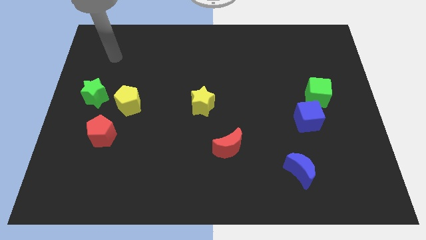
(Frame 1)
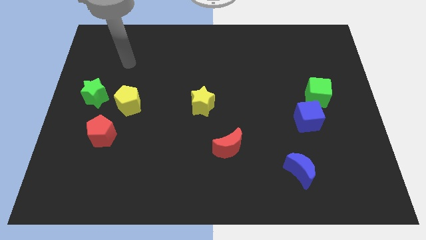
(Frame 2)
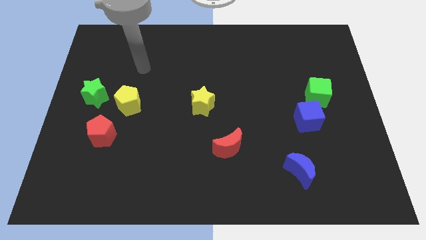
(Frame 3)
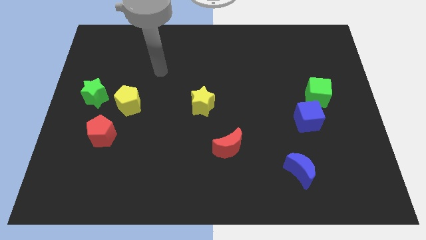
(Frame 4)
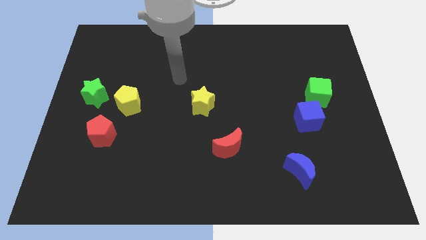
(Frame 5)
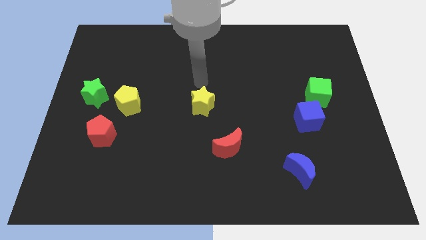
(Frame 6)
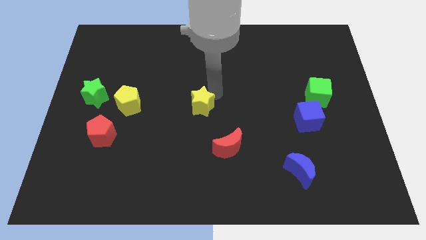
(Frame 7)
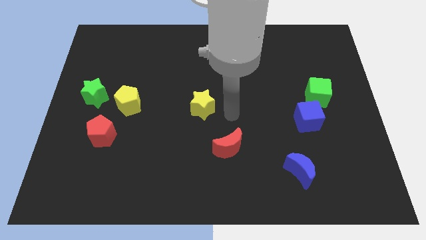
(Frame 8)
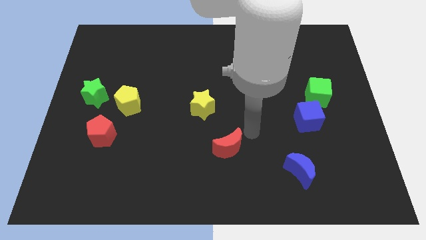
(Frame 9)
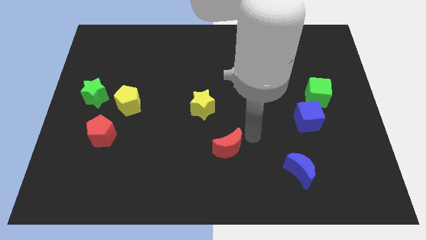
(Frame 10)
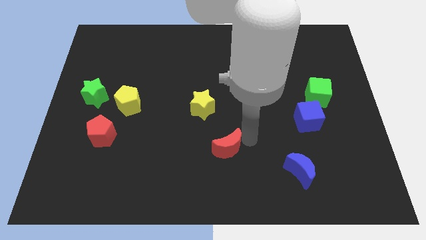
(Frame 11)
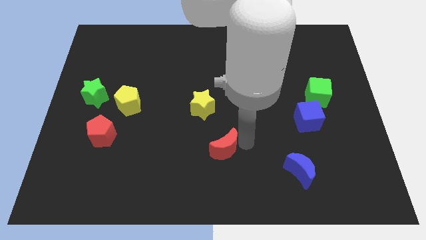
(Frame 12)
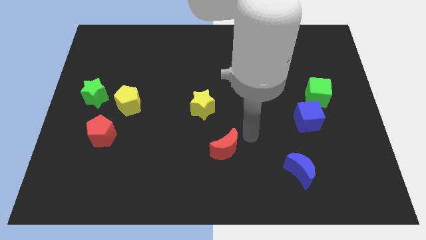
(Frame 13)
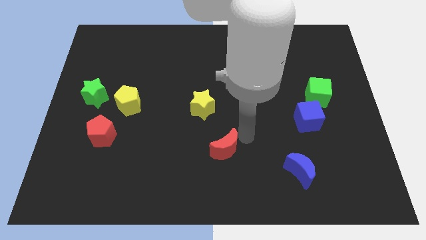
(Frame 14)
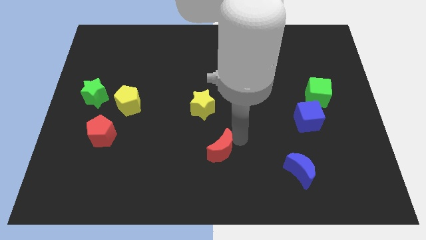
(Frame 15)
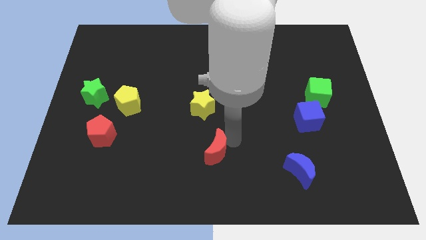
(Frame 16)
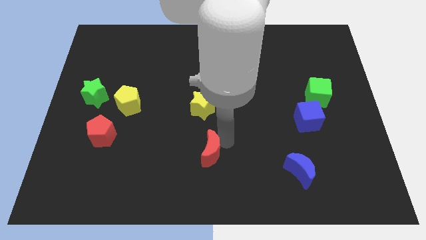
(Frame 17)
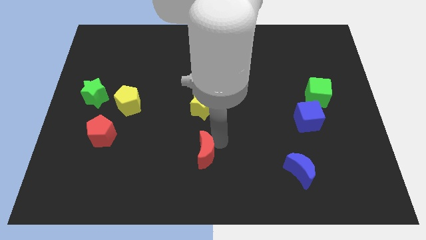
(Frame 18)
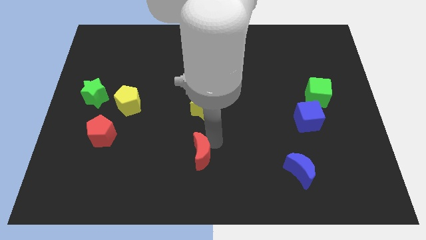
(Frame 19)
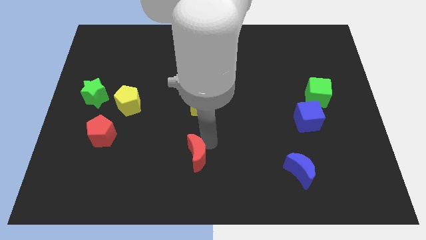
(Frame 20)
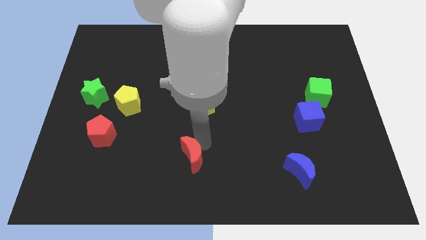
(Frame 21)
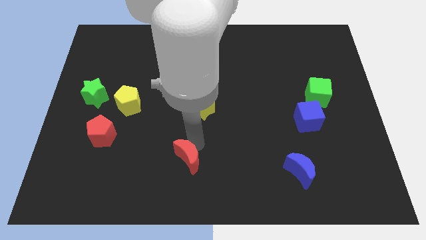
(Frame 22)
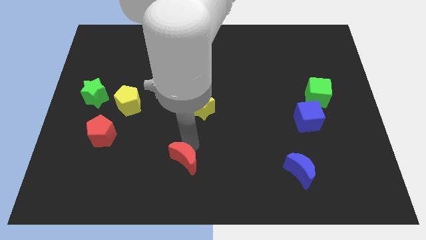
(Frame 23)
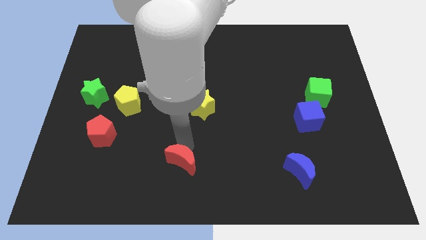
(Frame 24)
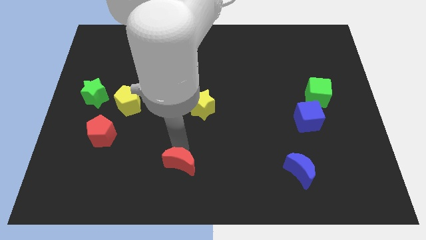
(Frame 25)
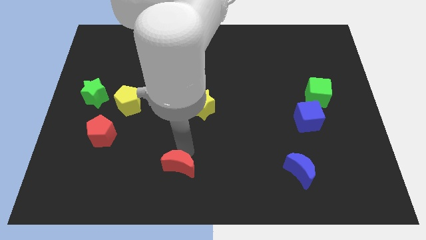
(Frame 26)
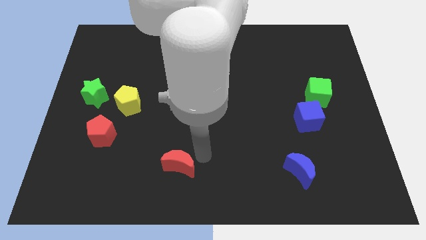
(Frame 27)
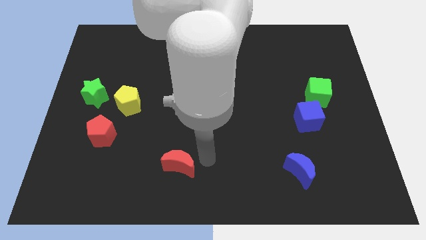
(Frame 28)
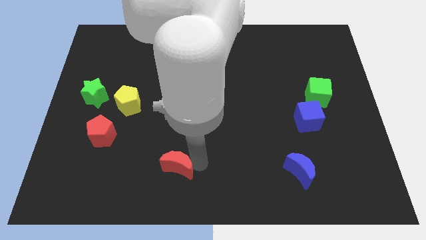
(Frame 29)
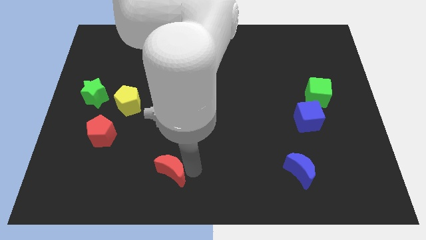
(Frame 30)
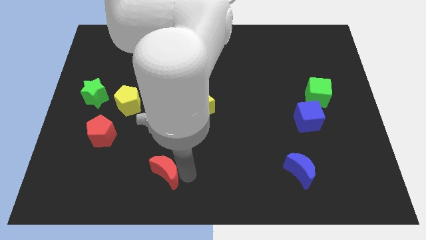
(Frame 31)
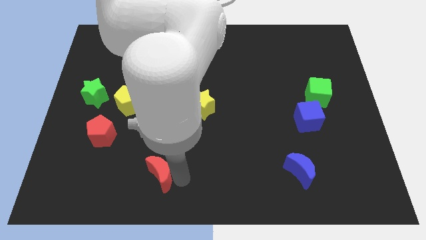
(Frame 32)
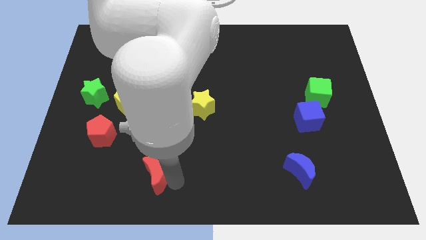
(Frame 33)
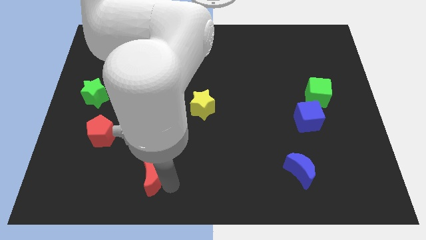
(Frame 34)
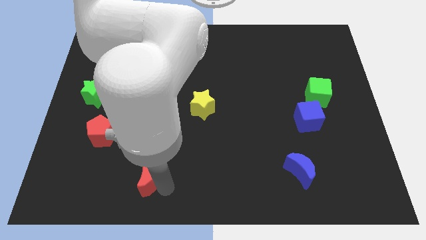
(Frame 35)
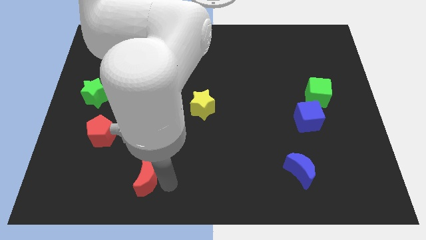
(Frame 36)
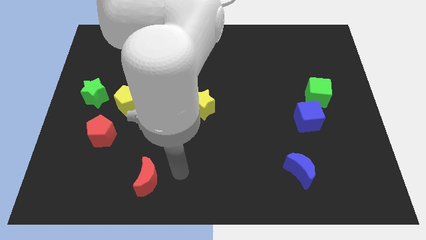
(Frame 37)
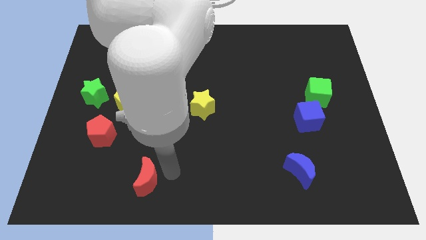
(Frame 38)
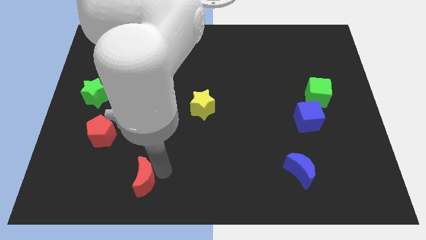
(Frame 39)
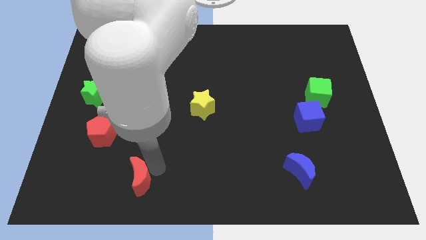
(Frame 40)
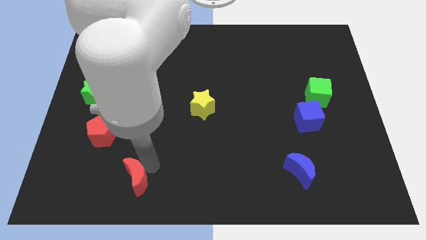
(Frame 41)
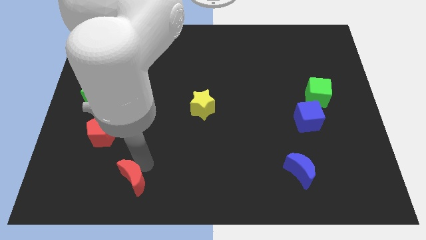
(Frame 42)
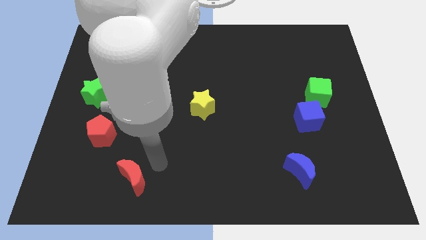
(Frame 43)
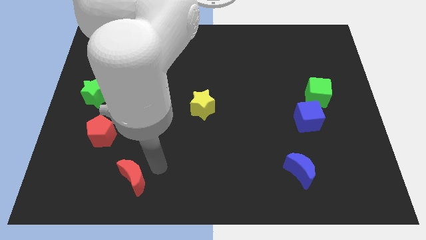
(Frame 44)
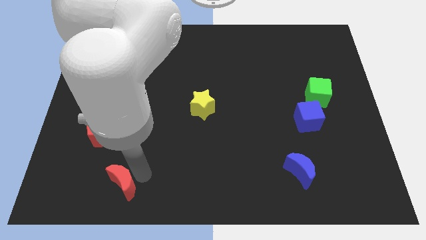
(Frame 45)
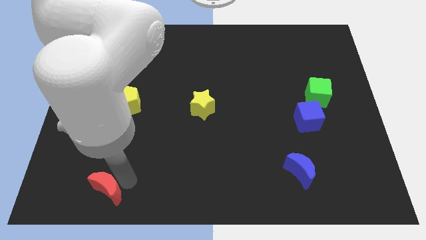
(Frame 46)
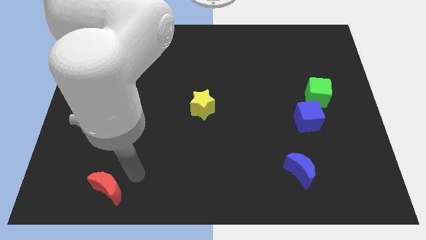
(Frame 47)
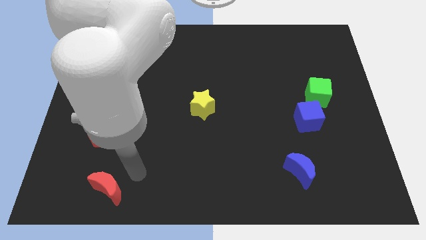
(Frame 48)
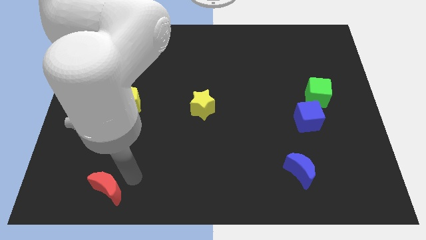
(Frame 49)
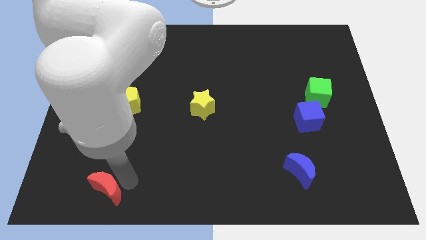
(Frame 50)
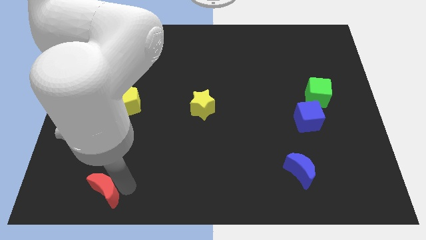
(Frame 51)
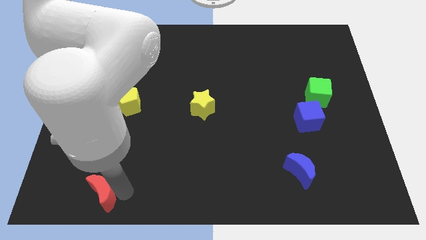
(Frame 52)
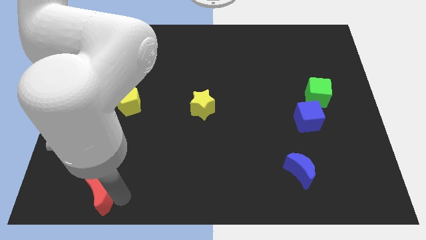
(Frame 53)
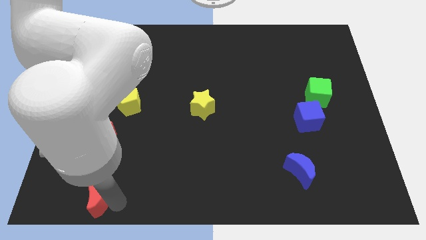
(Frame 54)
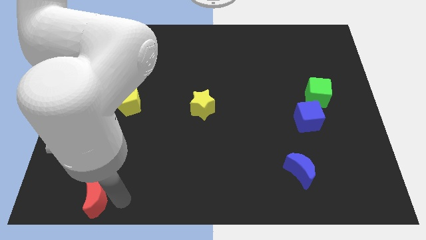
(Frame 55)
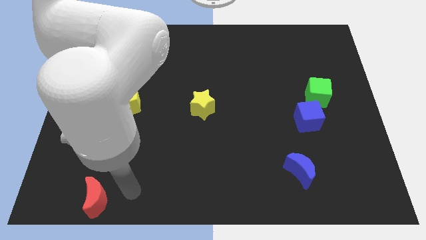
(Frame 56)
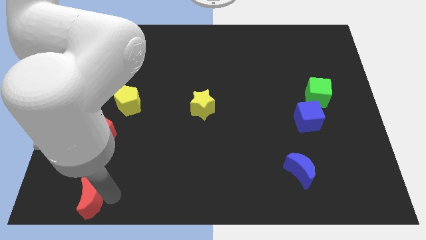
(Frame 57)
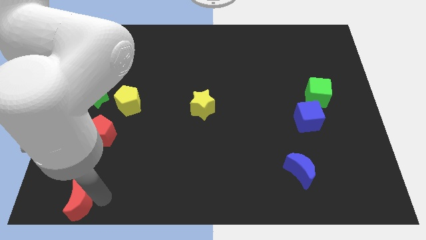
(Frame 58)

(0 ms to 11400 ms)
slide the red moon to the bottom left corner

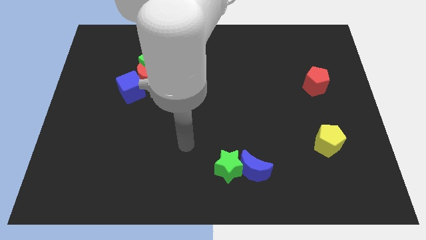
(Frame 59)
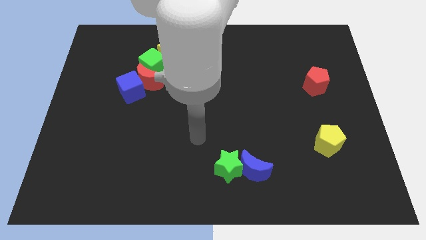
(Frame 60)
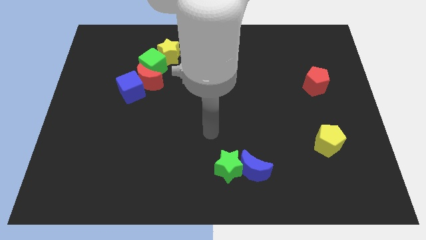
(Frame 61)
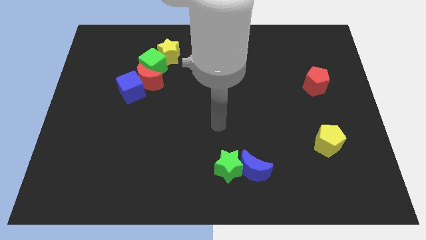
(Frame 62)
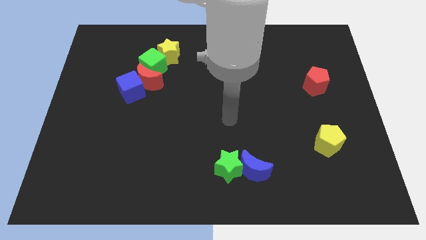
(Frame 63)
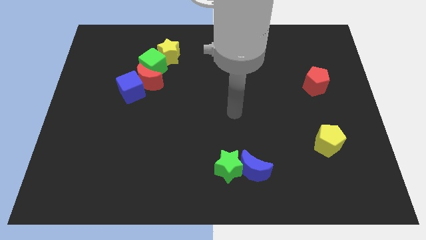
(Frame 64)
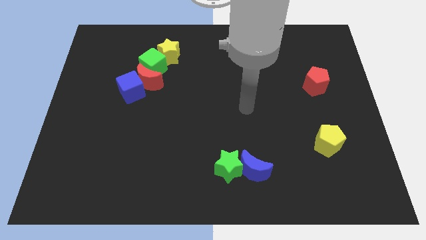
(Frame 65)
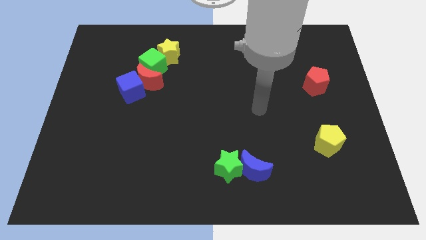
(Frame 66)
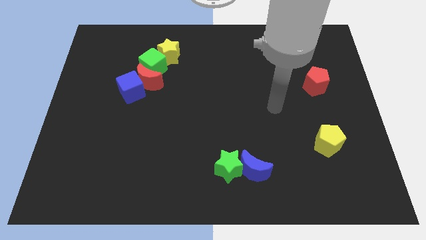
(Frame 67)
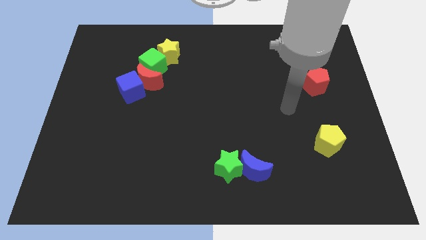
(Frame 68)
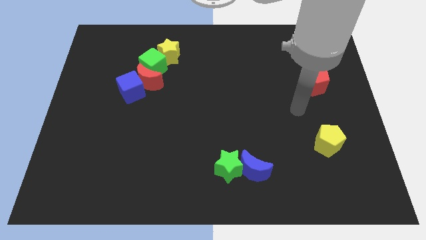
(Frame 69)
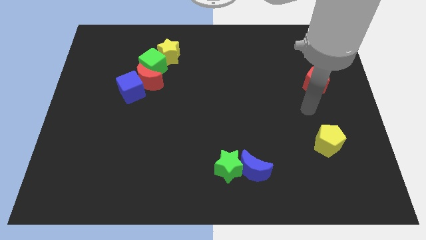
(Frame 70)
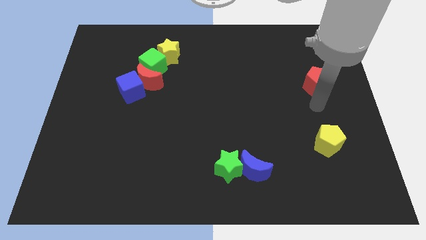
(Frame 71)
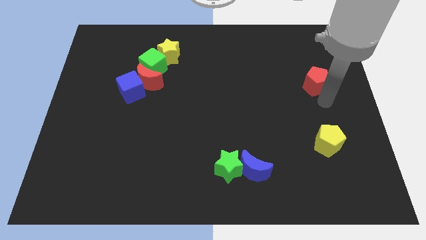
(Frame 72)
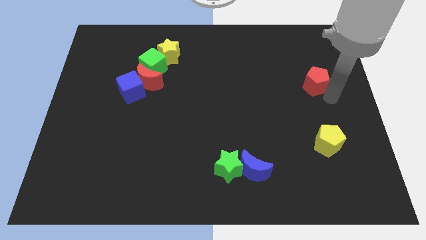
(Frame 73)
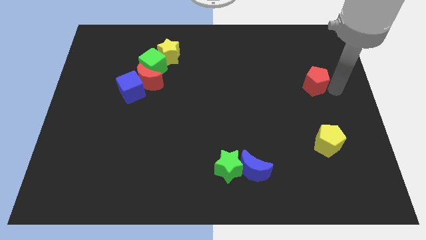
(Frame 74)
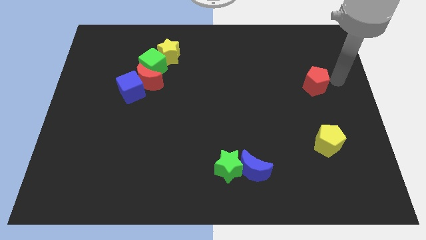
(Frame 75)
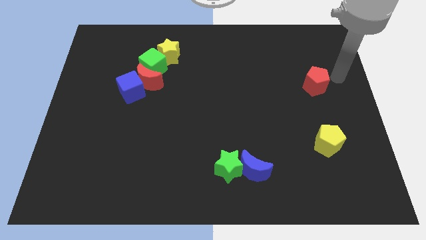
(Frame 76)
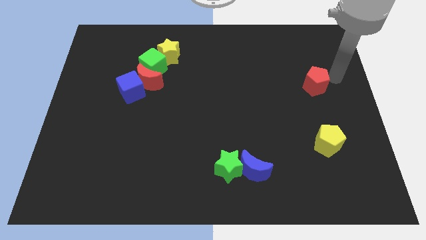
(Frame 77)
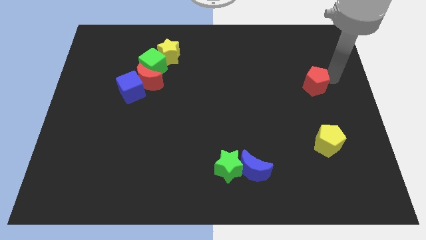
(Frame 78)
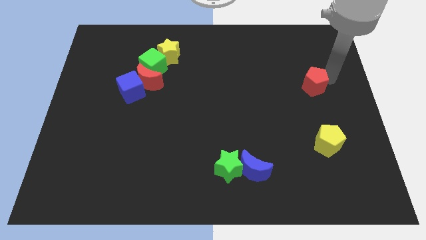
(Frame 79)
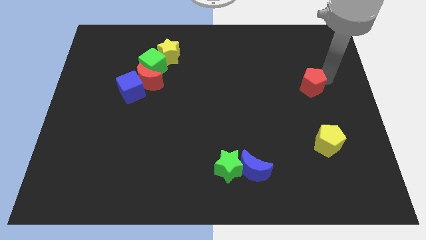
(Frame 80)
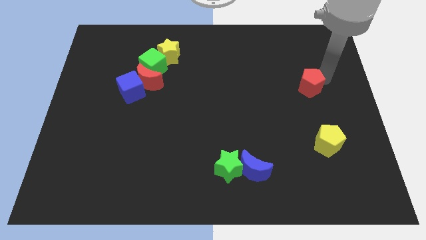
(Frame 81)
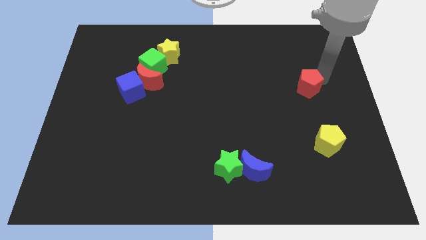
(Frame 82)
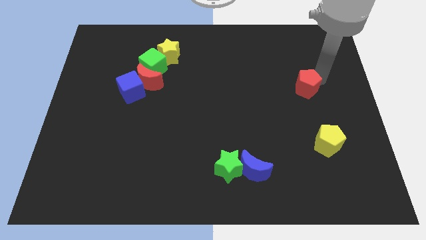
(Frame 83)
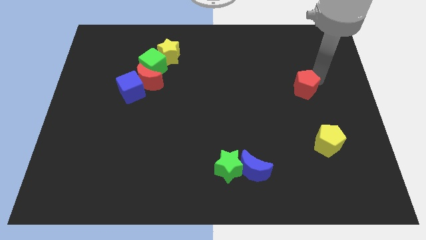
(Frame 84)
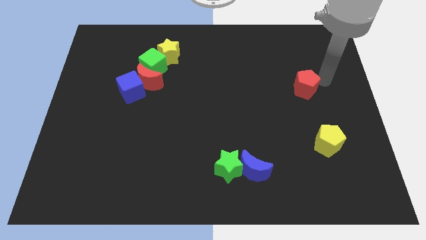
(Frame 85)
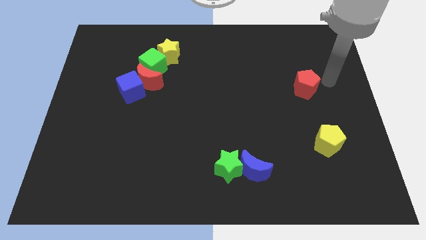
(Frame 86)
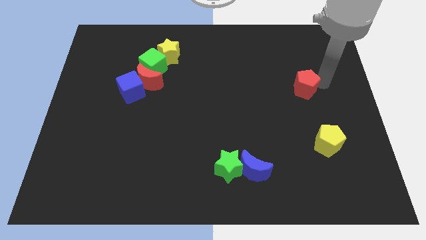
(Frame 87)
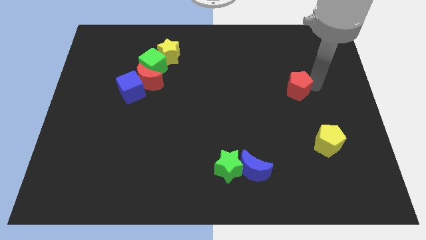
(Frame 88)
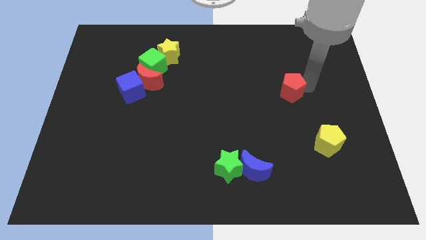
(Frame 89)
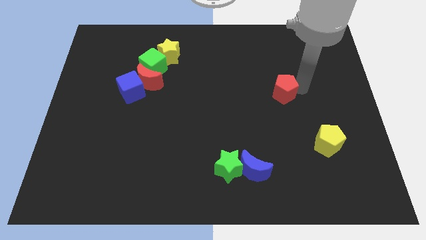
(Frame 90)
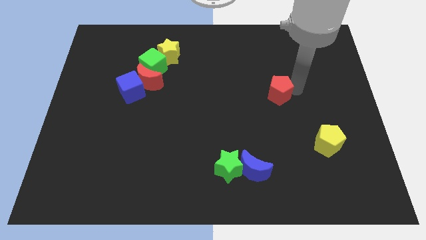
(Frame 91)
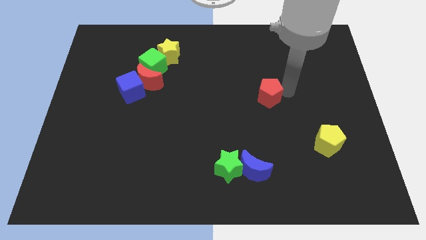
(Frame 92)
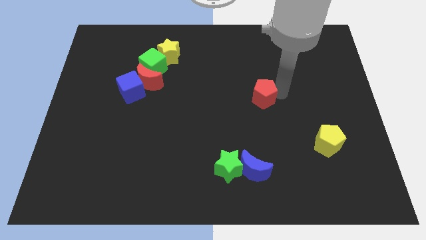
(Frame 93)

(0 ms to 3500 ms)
move the red pentagon to the middle
